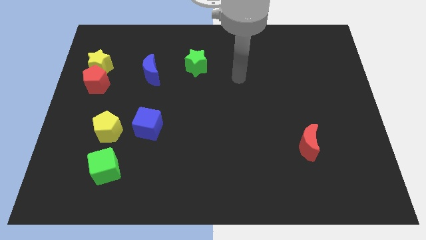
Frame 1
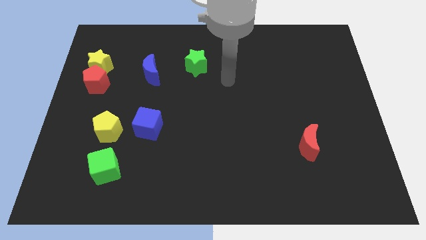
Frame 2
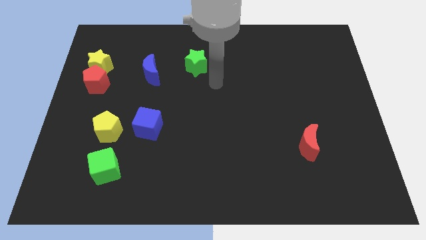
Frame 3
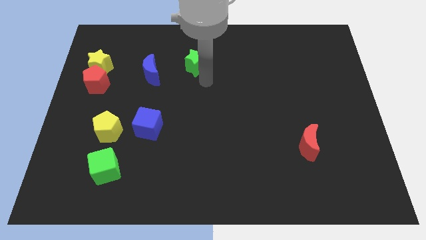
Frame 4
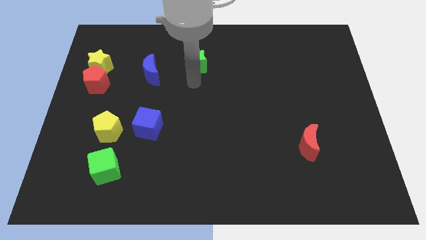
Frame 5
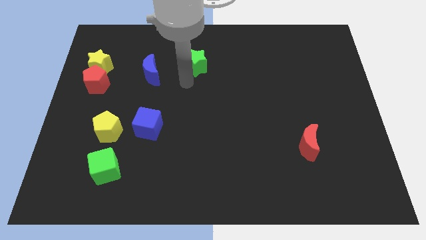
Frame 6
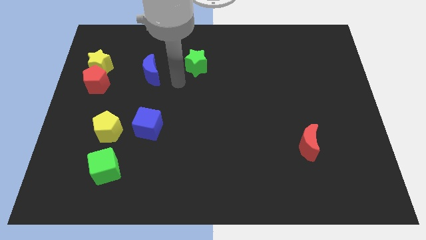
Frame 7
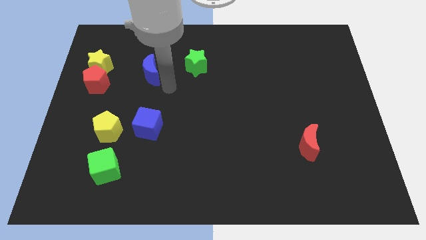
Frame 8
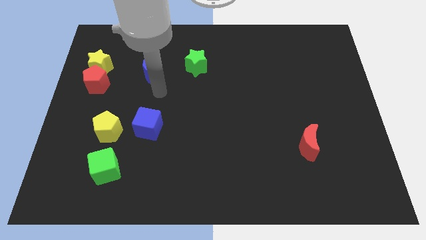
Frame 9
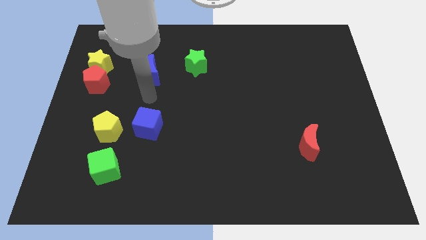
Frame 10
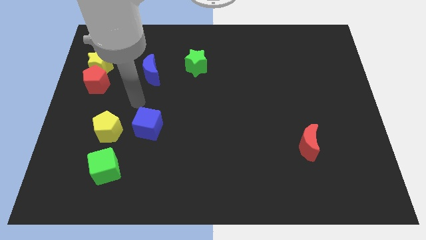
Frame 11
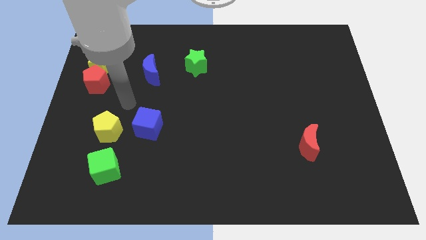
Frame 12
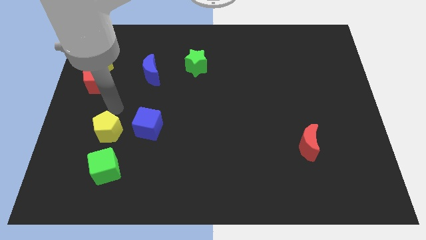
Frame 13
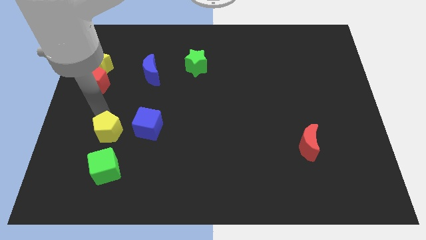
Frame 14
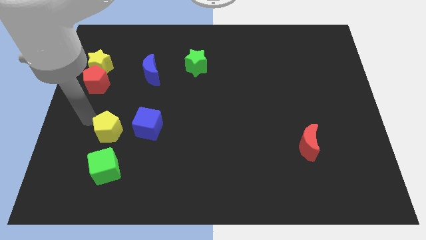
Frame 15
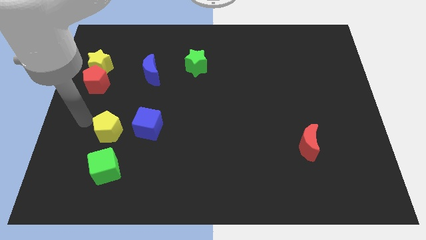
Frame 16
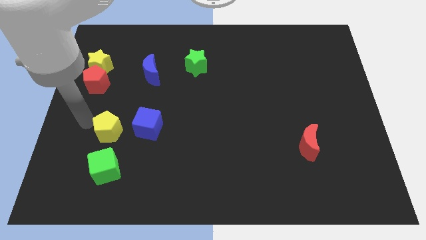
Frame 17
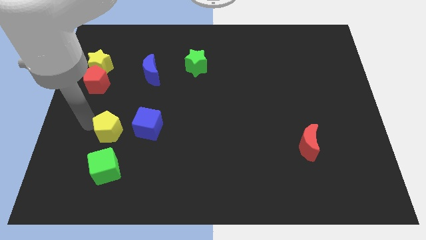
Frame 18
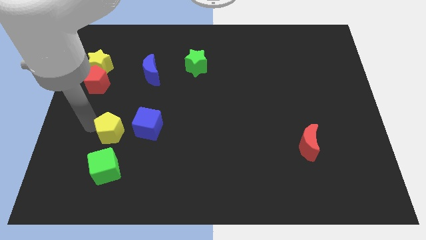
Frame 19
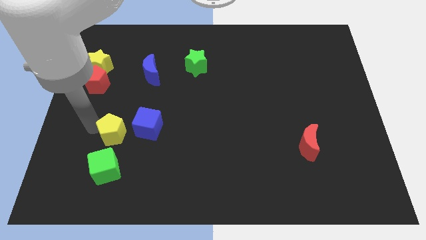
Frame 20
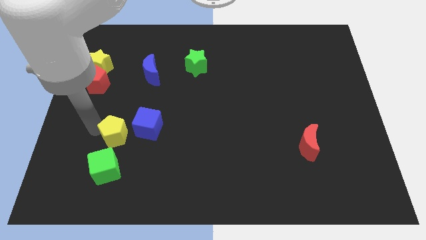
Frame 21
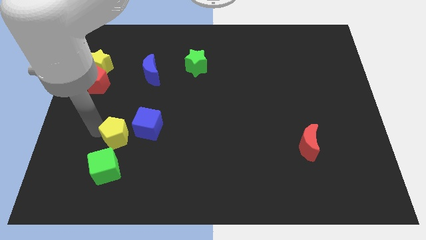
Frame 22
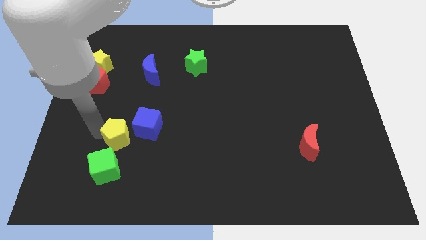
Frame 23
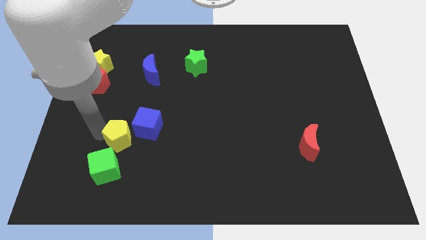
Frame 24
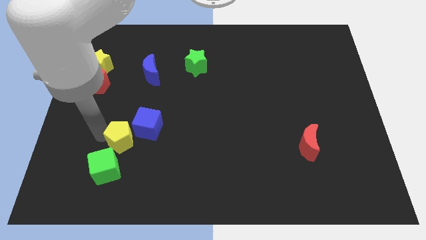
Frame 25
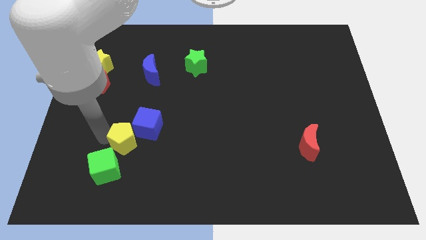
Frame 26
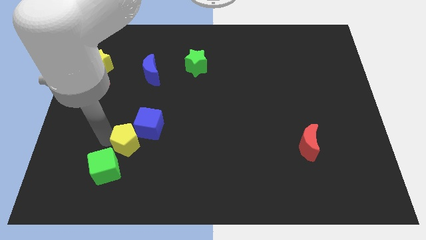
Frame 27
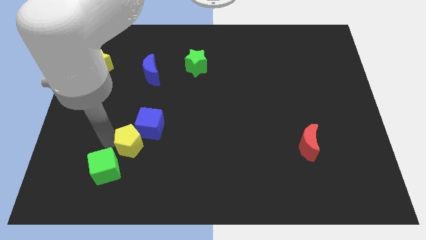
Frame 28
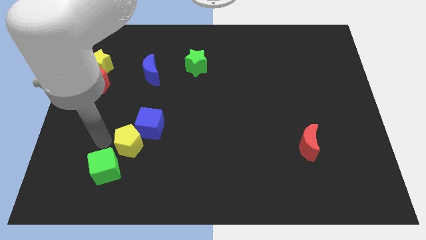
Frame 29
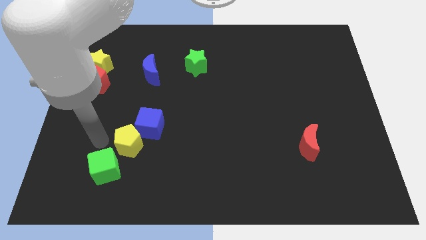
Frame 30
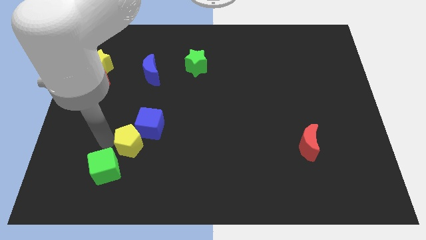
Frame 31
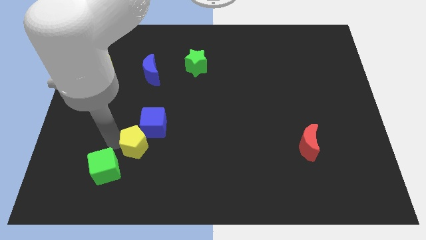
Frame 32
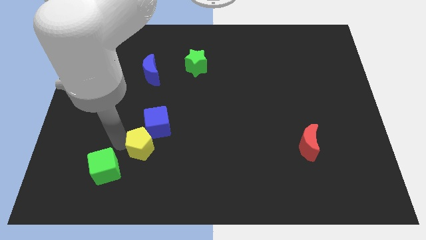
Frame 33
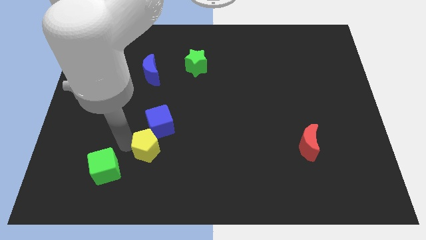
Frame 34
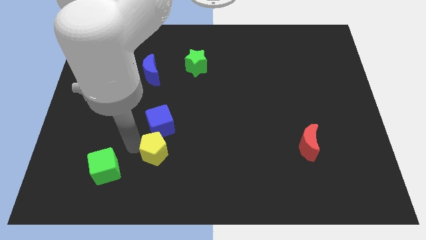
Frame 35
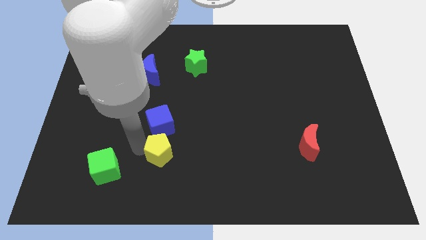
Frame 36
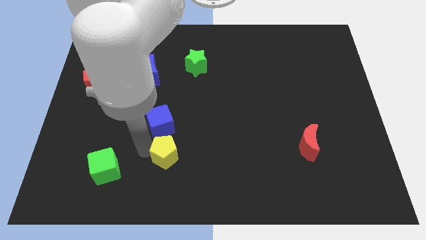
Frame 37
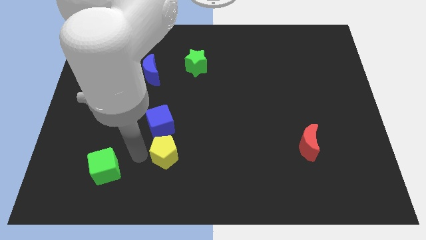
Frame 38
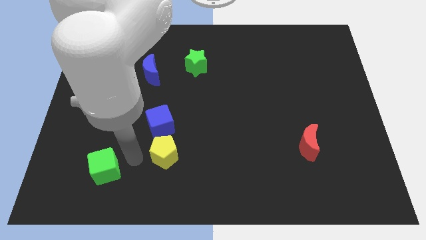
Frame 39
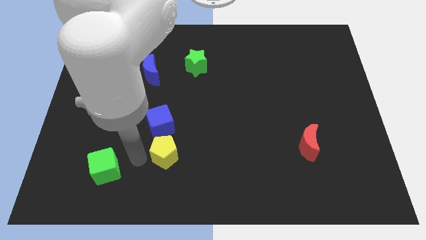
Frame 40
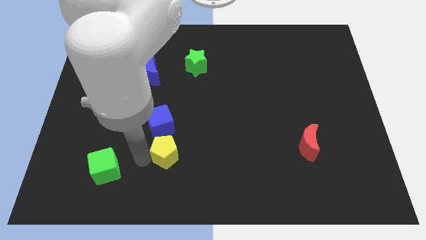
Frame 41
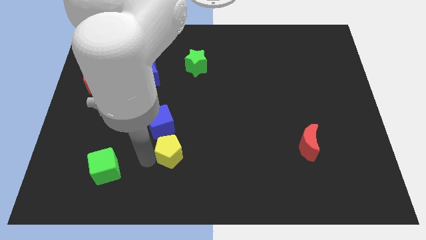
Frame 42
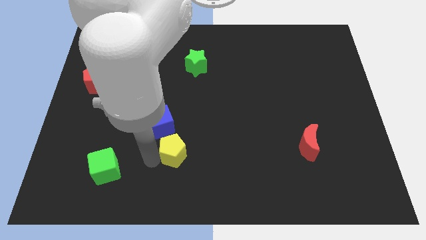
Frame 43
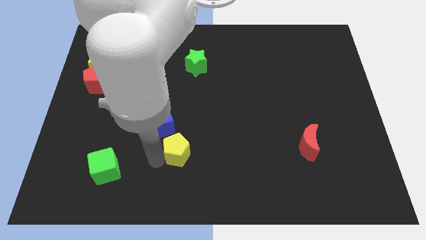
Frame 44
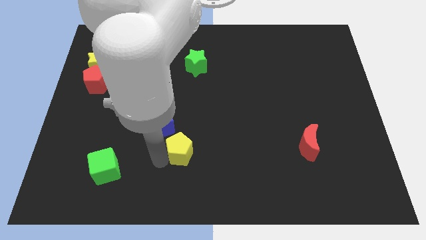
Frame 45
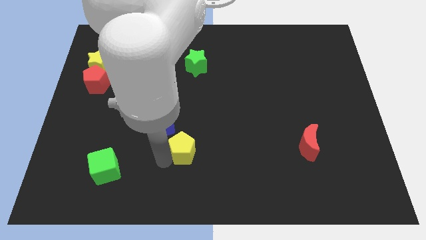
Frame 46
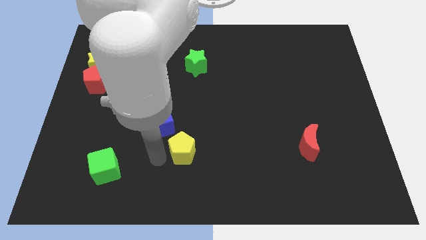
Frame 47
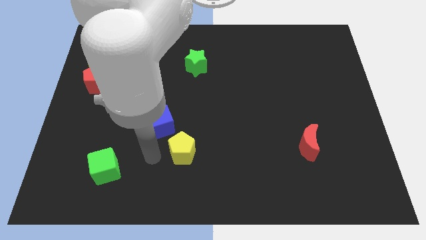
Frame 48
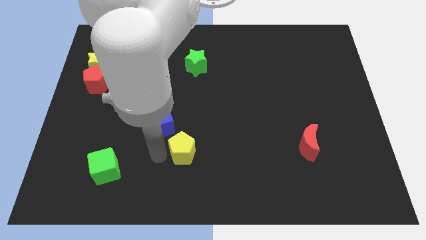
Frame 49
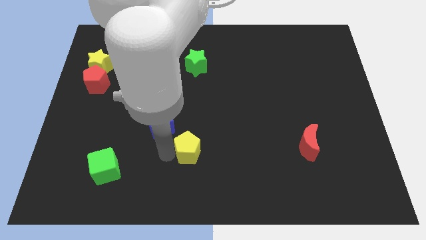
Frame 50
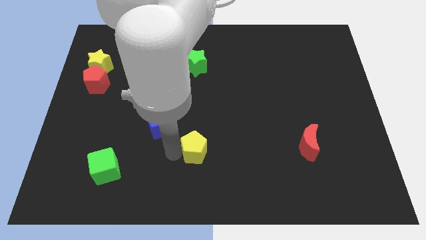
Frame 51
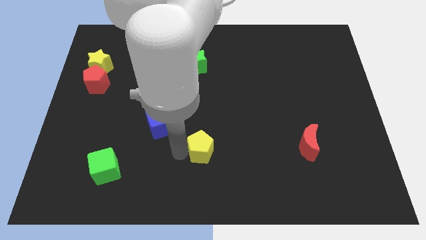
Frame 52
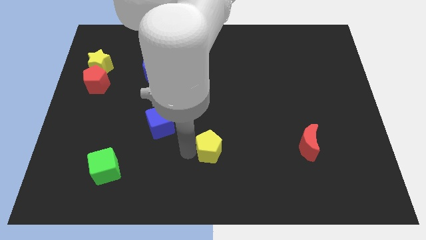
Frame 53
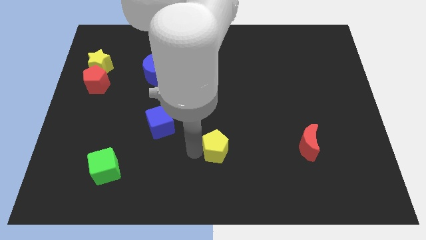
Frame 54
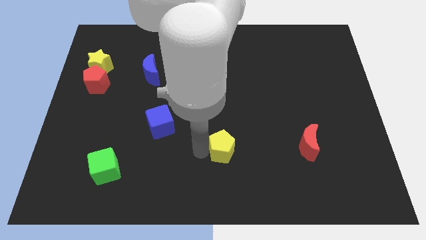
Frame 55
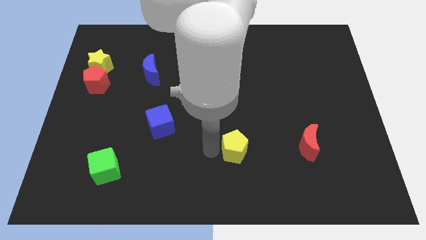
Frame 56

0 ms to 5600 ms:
move the yellow pentagon left of the red moon
